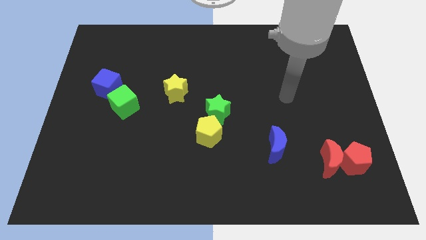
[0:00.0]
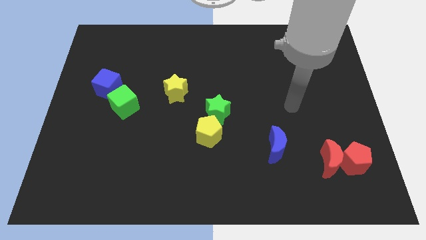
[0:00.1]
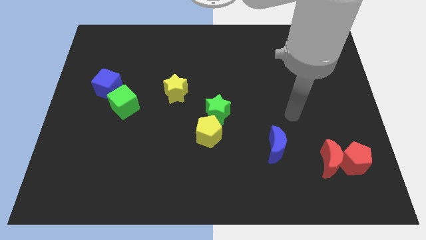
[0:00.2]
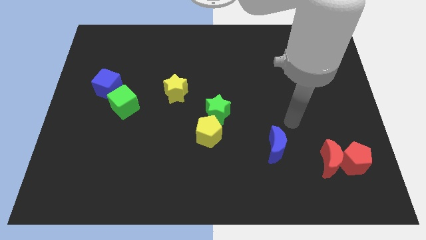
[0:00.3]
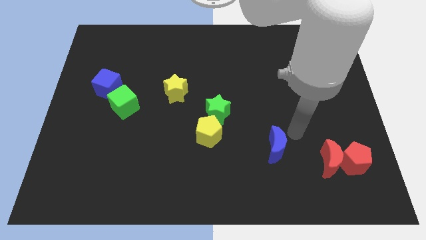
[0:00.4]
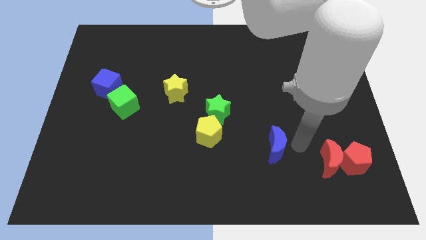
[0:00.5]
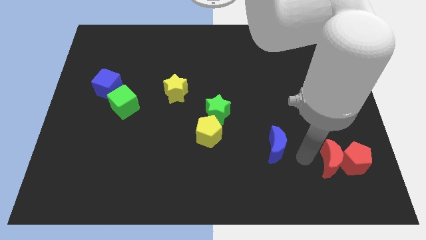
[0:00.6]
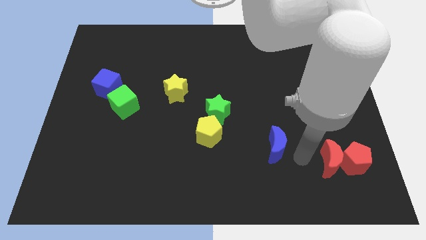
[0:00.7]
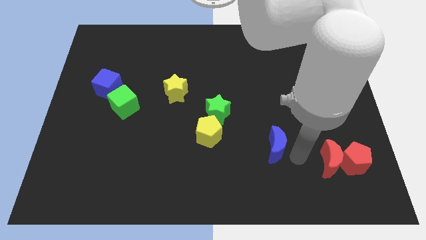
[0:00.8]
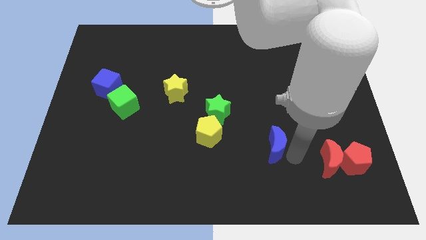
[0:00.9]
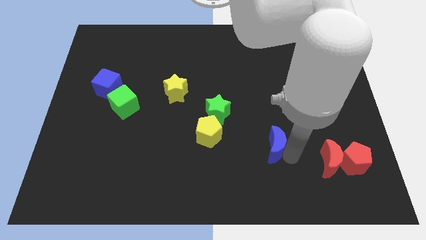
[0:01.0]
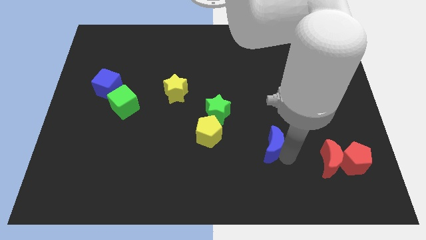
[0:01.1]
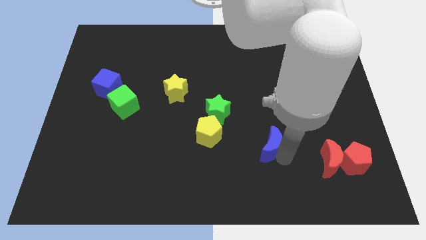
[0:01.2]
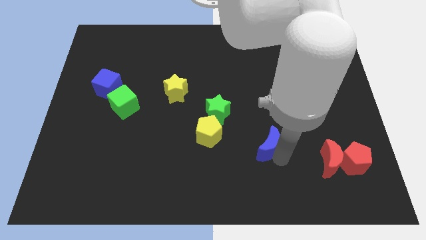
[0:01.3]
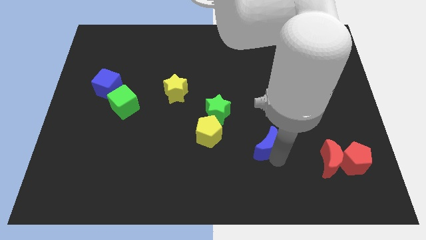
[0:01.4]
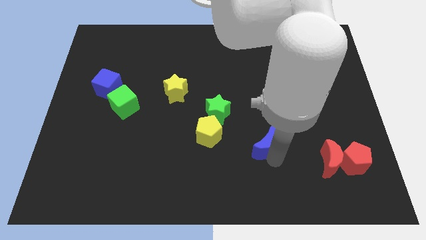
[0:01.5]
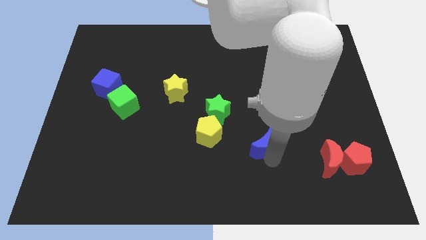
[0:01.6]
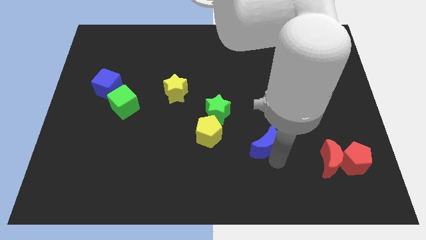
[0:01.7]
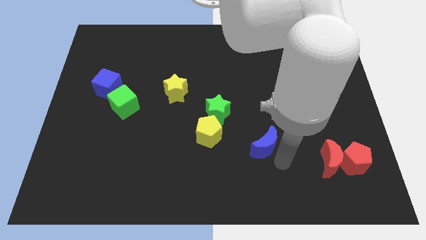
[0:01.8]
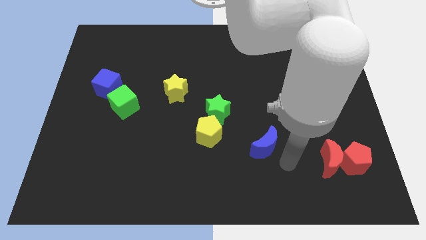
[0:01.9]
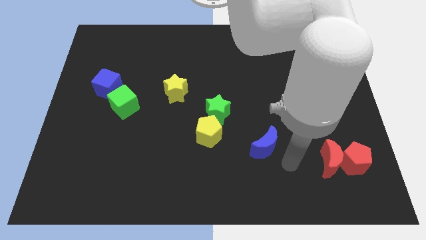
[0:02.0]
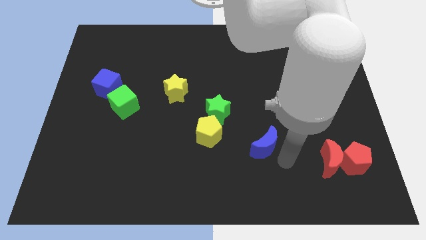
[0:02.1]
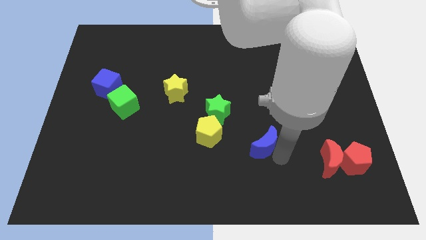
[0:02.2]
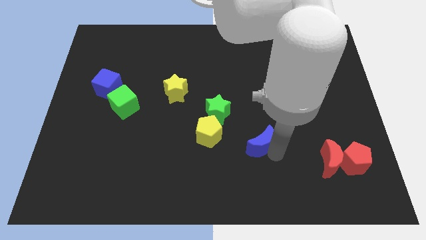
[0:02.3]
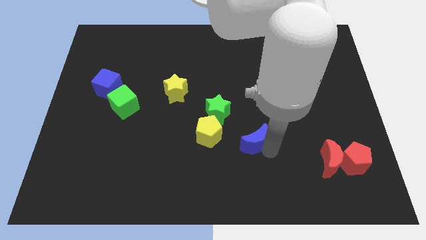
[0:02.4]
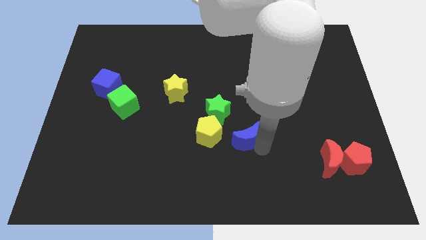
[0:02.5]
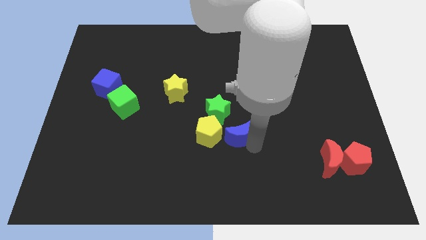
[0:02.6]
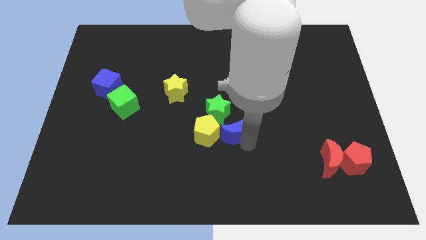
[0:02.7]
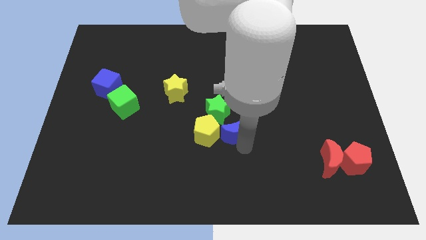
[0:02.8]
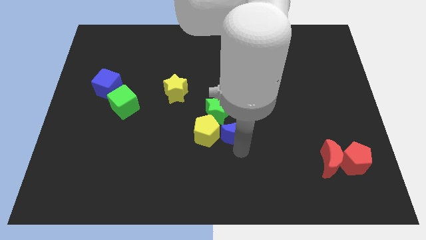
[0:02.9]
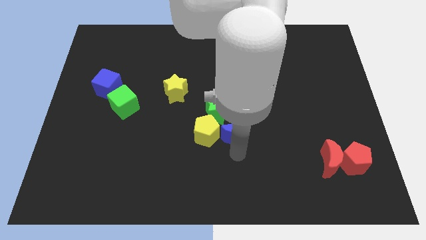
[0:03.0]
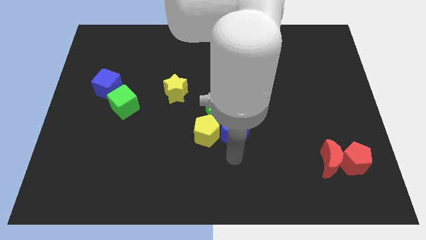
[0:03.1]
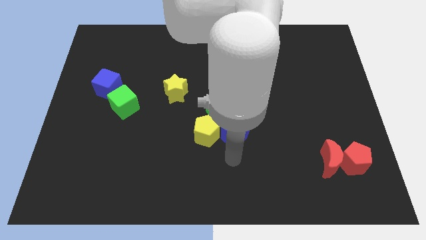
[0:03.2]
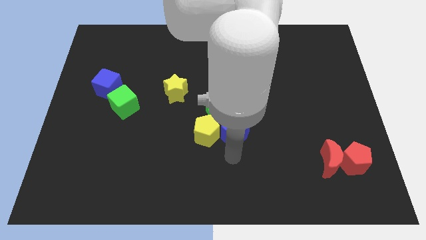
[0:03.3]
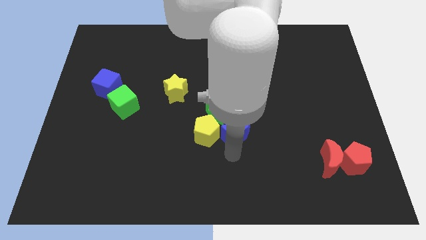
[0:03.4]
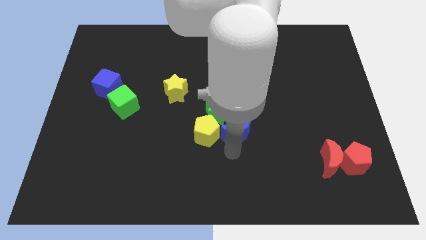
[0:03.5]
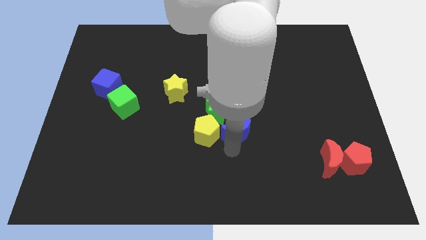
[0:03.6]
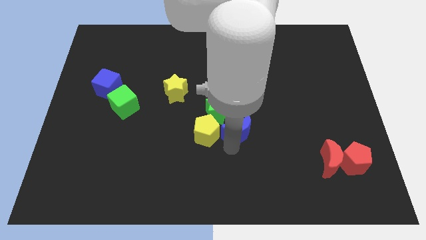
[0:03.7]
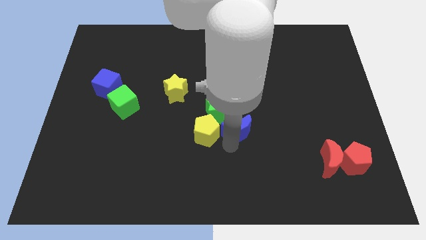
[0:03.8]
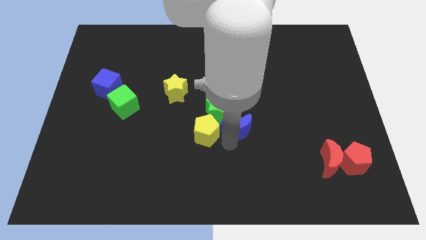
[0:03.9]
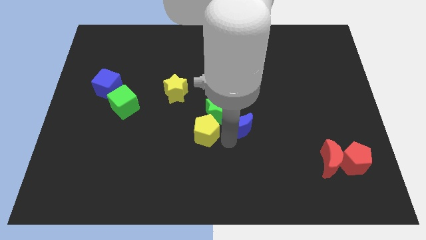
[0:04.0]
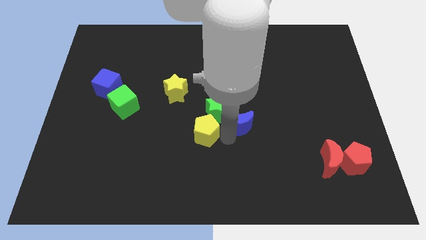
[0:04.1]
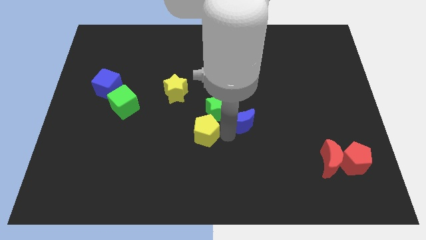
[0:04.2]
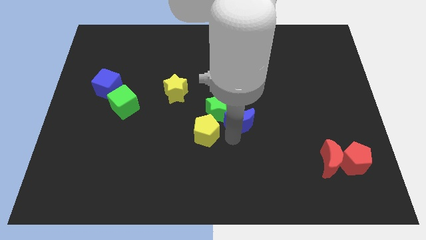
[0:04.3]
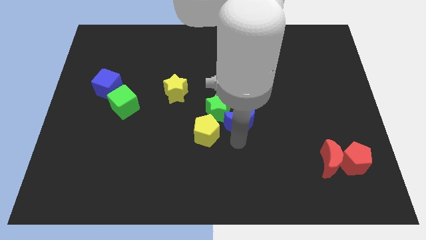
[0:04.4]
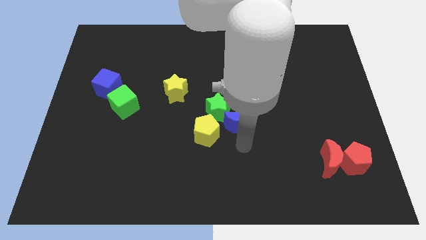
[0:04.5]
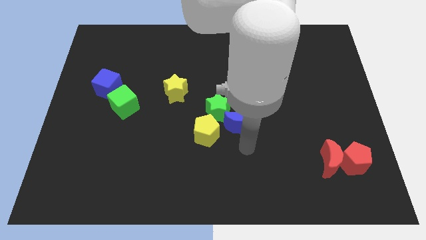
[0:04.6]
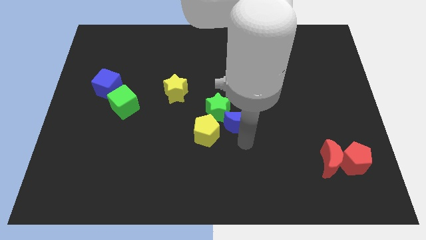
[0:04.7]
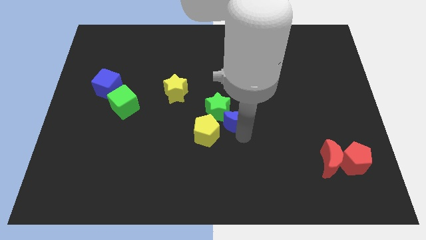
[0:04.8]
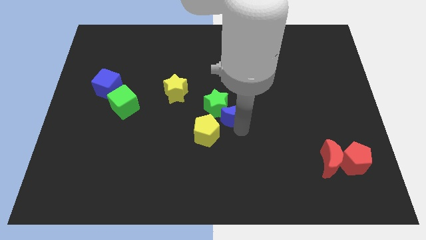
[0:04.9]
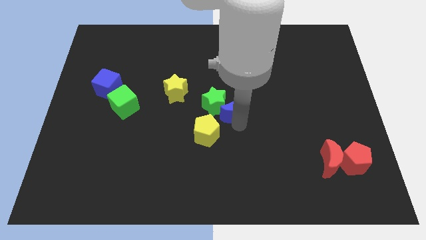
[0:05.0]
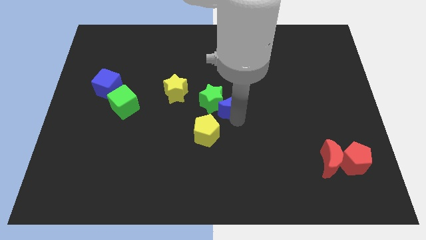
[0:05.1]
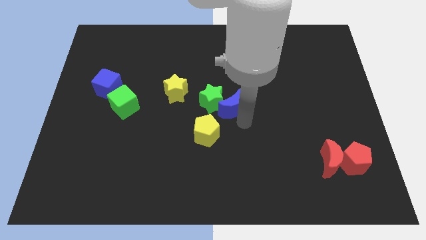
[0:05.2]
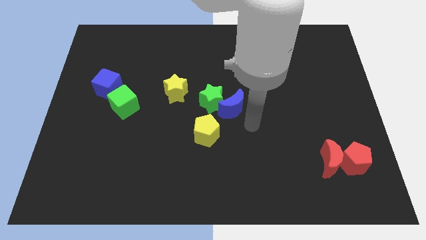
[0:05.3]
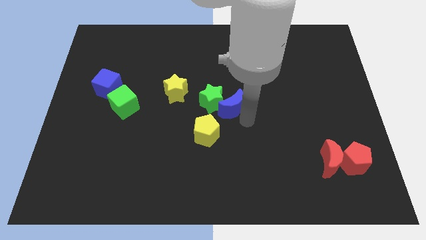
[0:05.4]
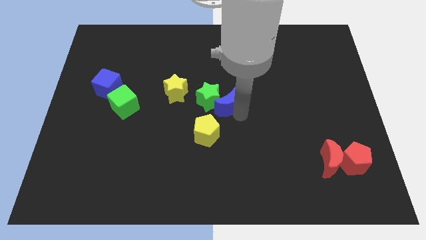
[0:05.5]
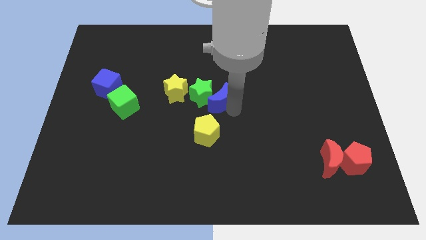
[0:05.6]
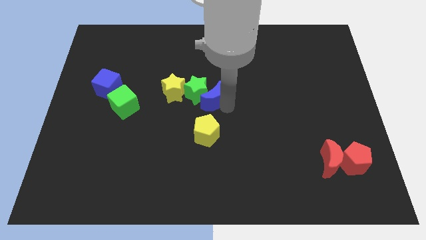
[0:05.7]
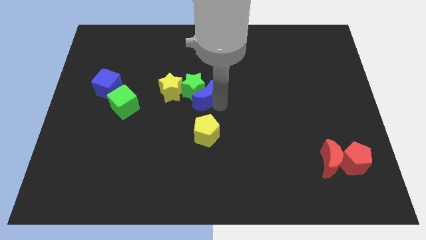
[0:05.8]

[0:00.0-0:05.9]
move the blue moon upwards and to the left

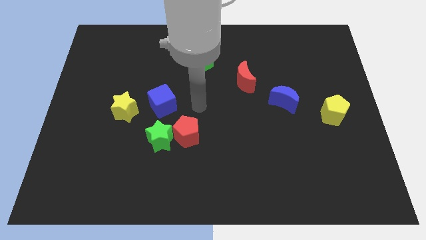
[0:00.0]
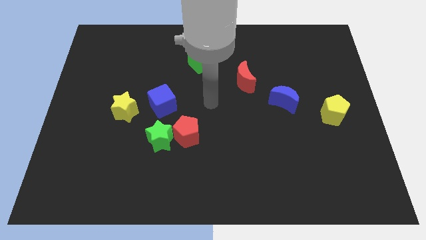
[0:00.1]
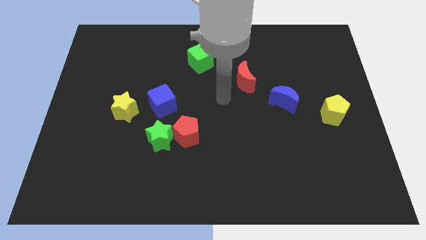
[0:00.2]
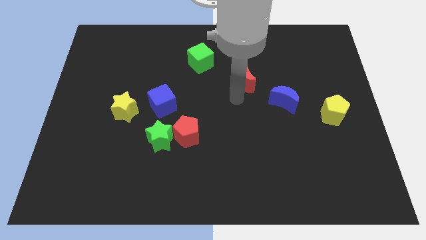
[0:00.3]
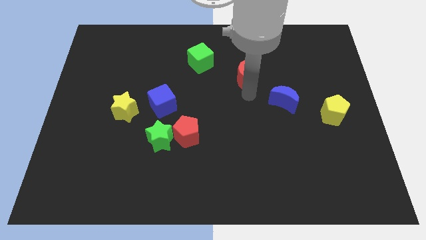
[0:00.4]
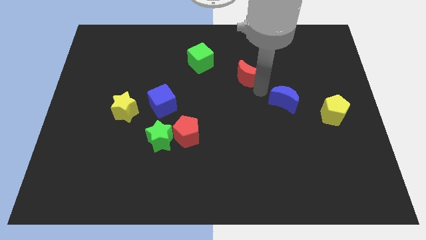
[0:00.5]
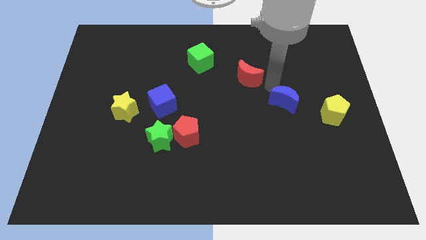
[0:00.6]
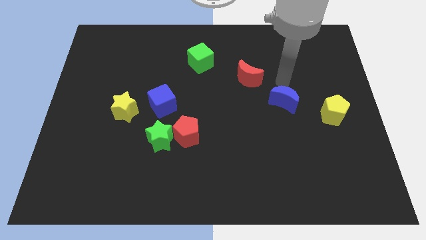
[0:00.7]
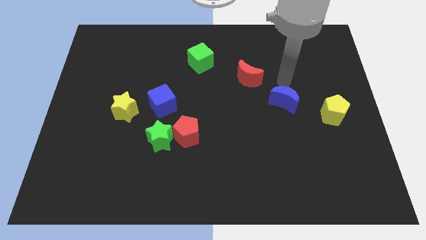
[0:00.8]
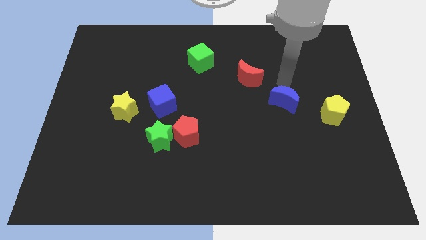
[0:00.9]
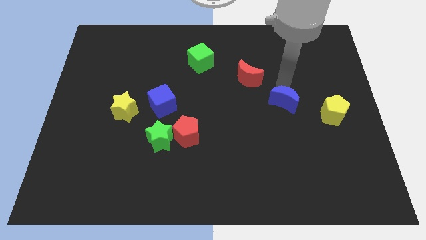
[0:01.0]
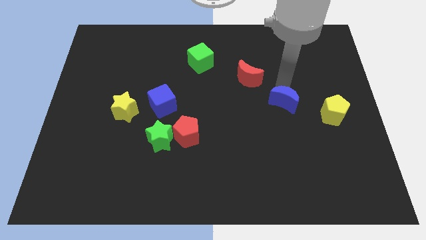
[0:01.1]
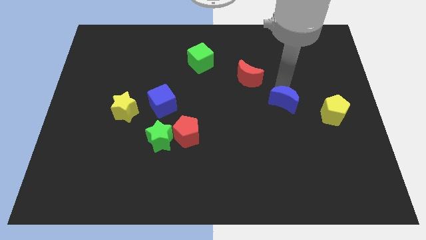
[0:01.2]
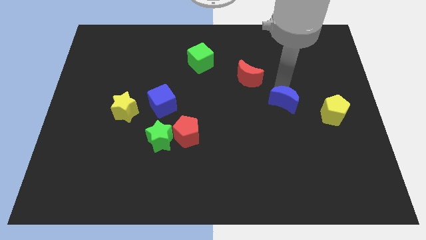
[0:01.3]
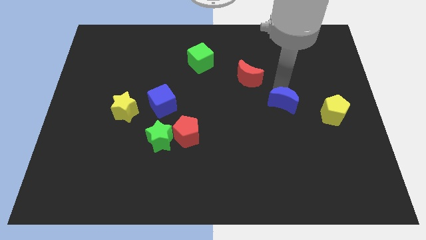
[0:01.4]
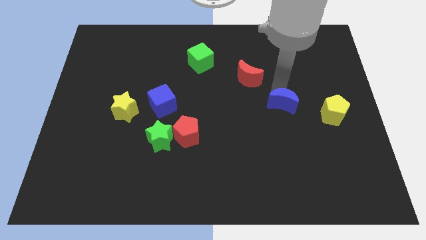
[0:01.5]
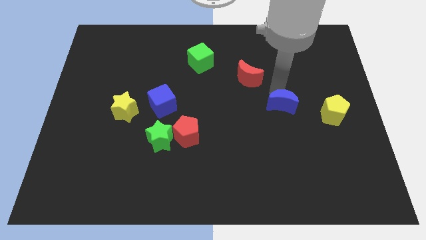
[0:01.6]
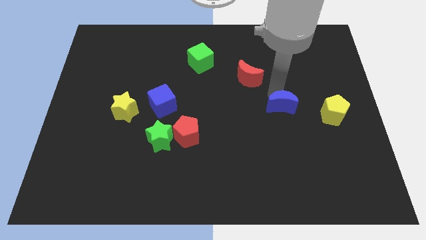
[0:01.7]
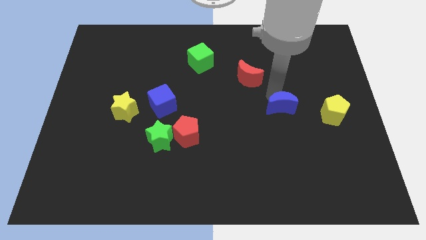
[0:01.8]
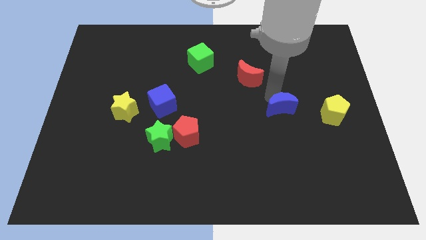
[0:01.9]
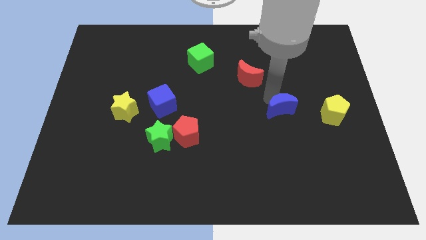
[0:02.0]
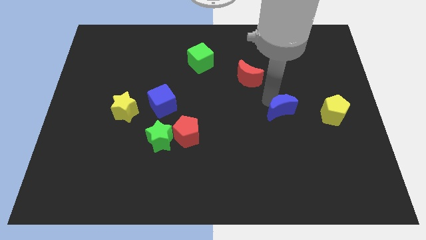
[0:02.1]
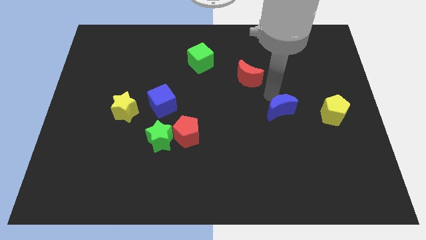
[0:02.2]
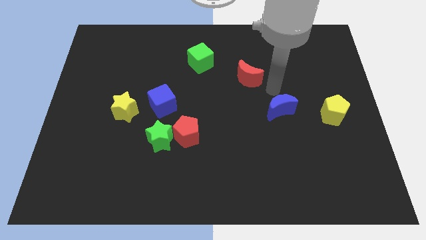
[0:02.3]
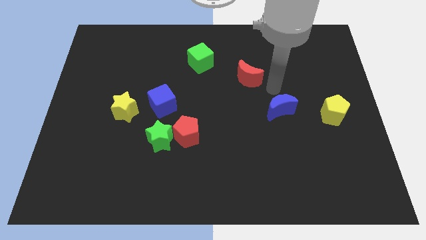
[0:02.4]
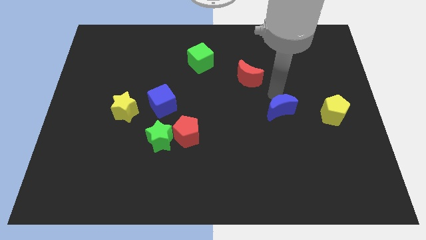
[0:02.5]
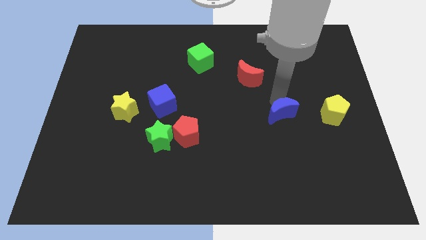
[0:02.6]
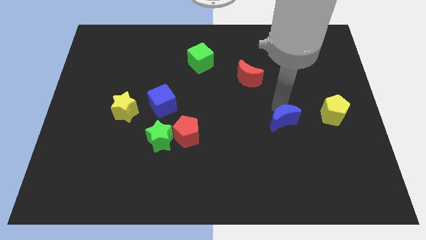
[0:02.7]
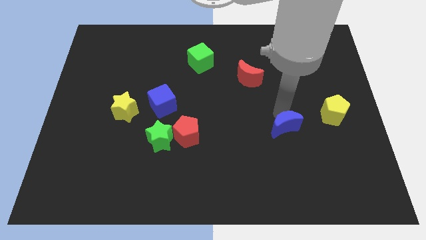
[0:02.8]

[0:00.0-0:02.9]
push the blue moon somewhat downwards
